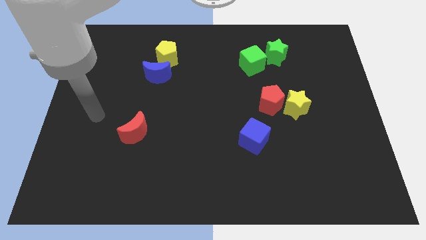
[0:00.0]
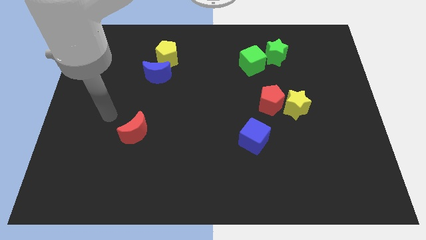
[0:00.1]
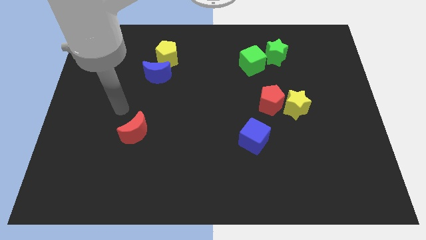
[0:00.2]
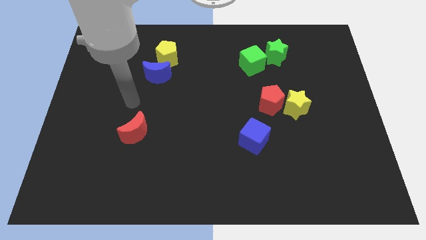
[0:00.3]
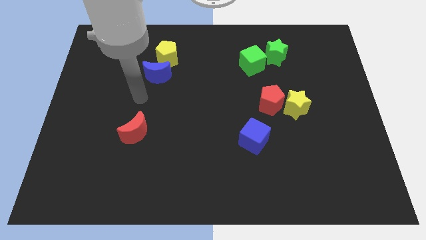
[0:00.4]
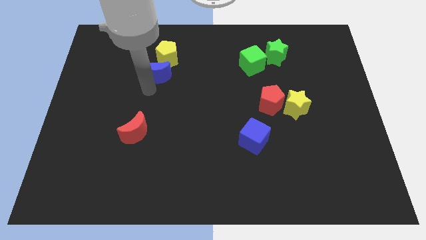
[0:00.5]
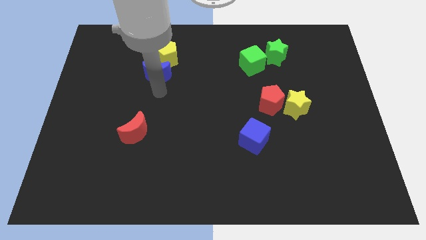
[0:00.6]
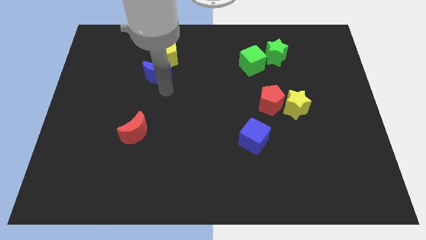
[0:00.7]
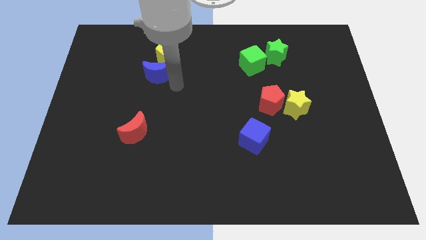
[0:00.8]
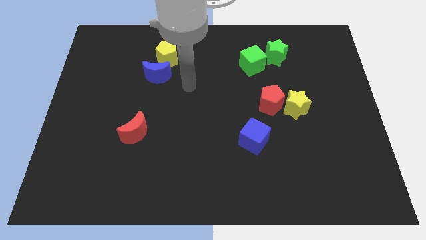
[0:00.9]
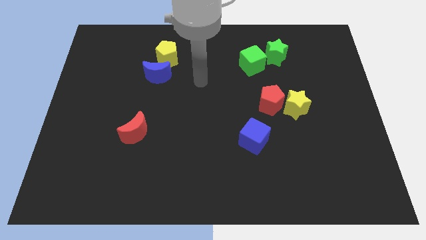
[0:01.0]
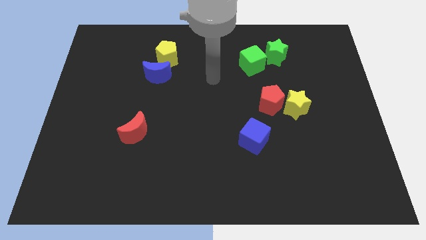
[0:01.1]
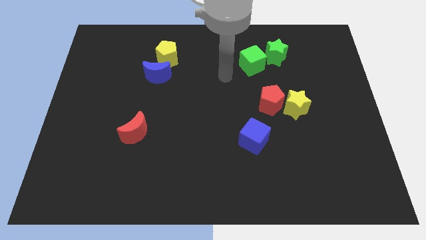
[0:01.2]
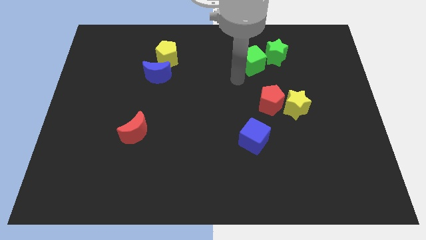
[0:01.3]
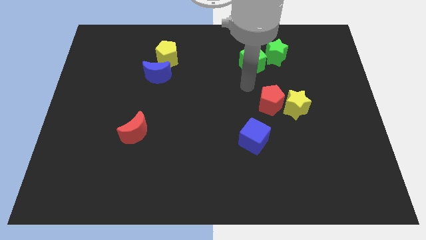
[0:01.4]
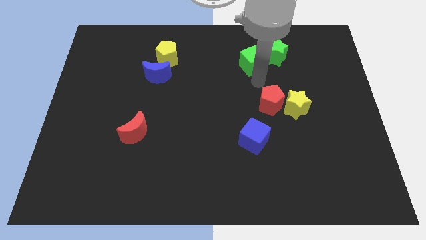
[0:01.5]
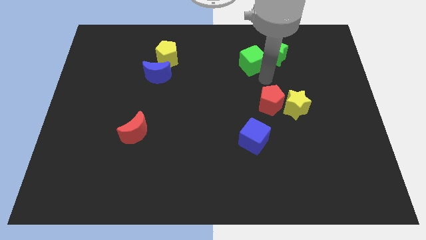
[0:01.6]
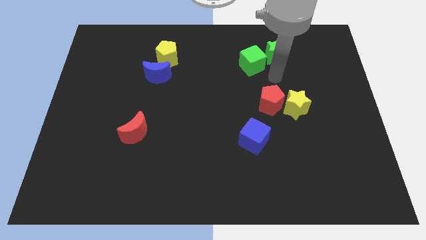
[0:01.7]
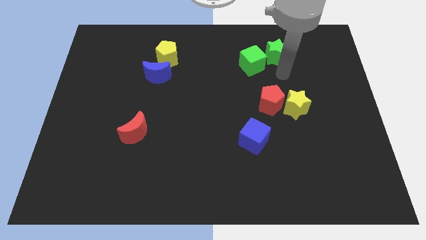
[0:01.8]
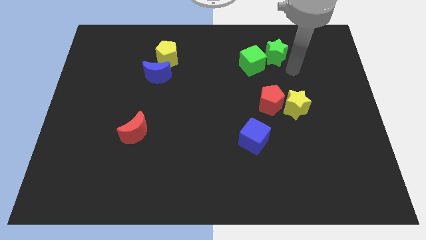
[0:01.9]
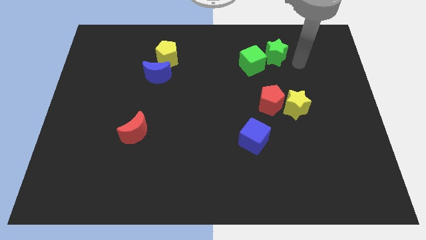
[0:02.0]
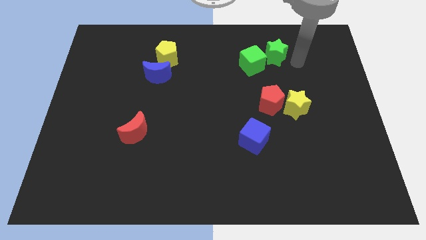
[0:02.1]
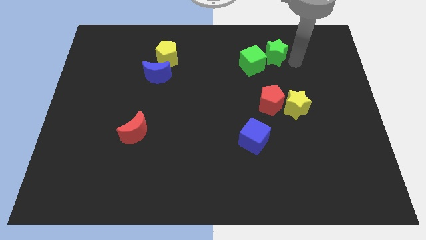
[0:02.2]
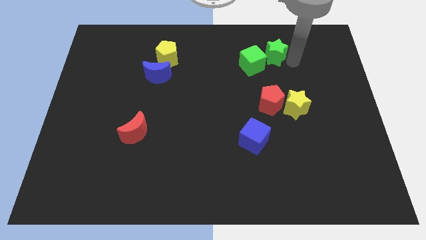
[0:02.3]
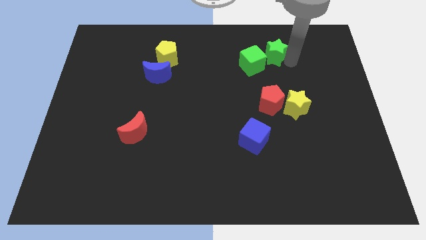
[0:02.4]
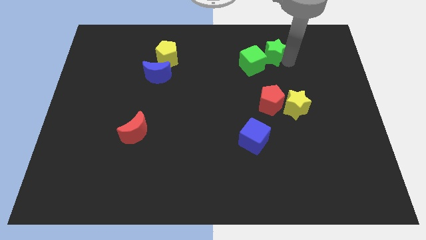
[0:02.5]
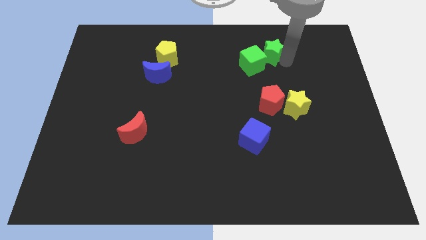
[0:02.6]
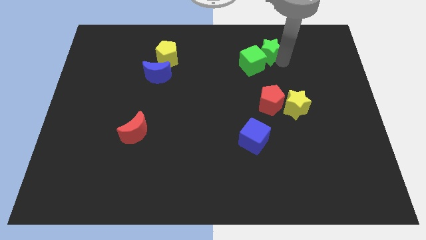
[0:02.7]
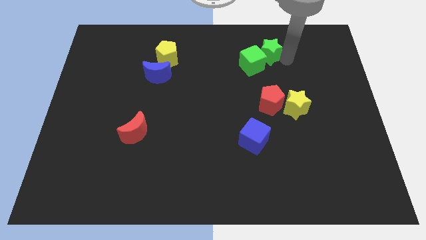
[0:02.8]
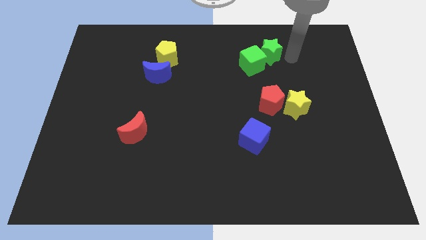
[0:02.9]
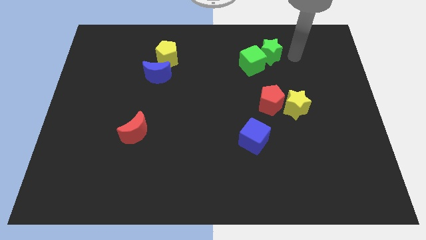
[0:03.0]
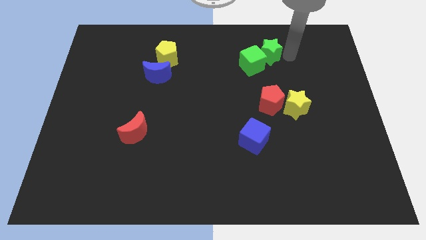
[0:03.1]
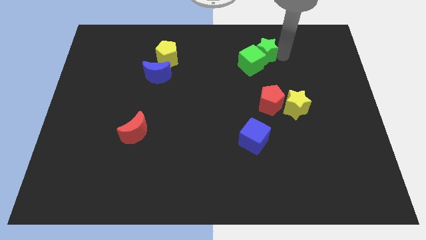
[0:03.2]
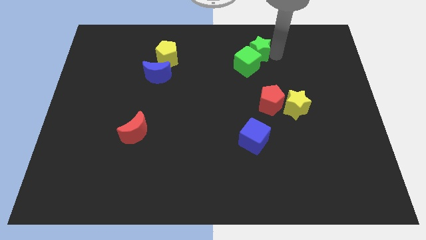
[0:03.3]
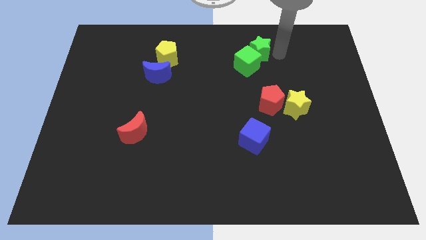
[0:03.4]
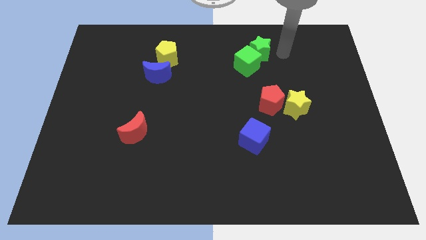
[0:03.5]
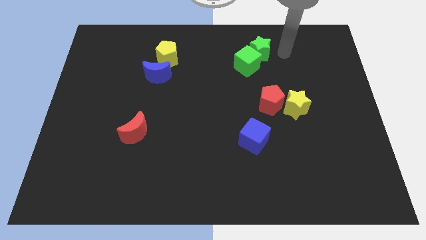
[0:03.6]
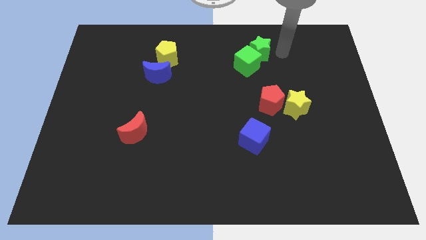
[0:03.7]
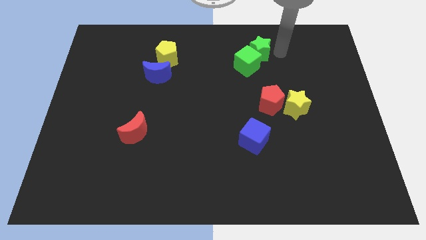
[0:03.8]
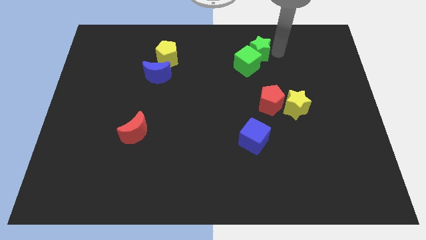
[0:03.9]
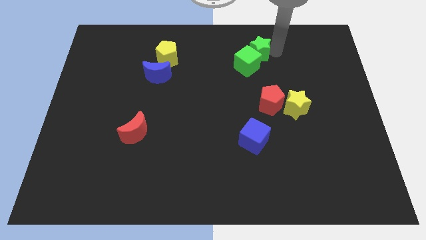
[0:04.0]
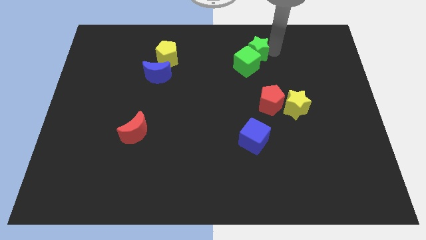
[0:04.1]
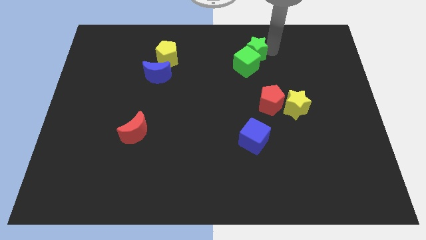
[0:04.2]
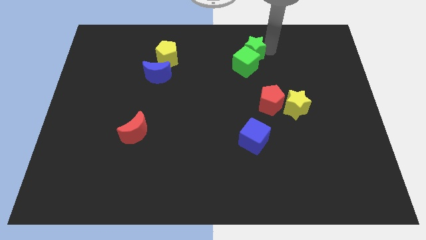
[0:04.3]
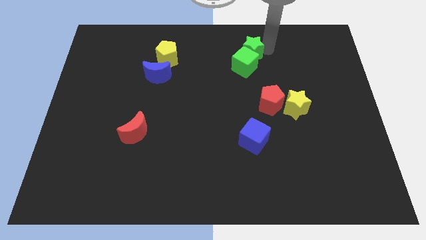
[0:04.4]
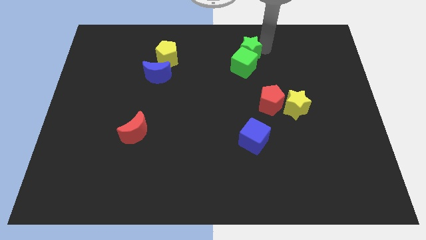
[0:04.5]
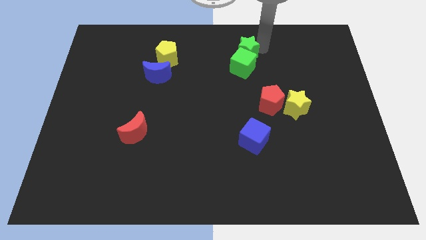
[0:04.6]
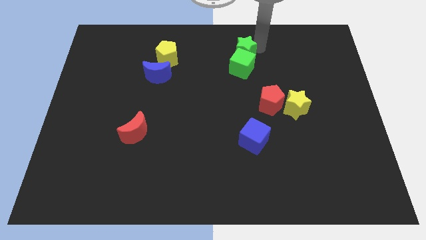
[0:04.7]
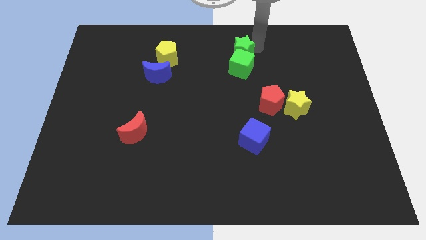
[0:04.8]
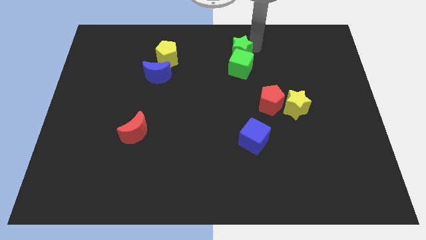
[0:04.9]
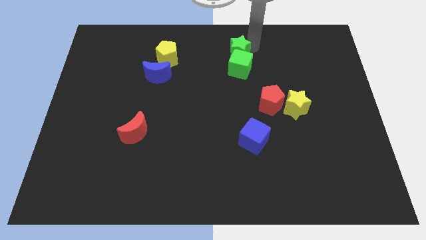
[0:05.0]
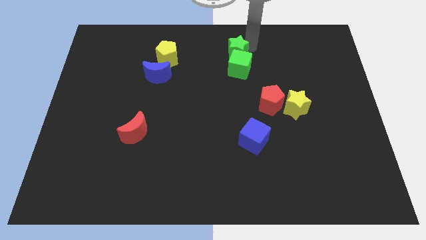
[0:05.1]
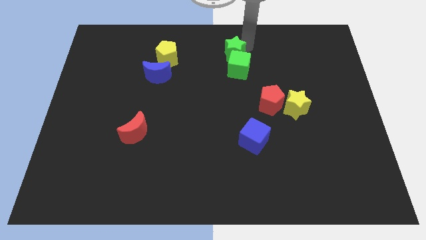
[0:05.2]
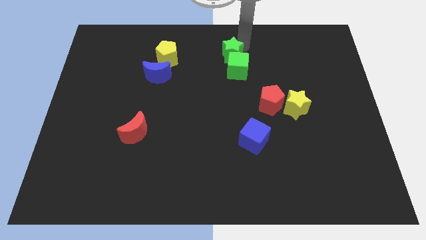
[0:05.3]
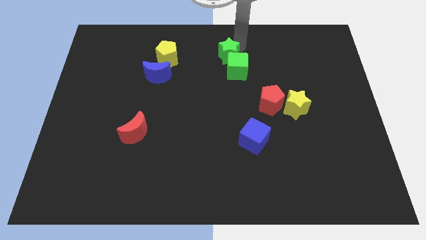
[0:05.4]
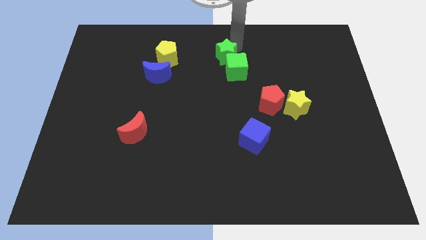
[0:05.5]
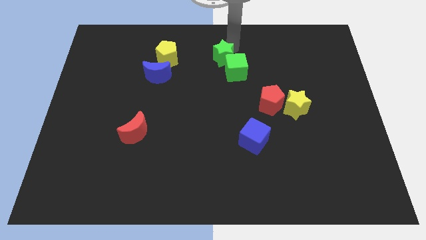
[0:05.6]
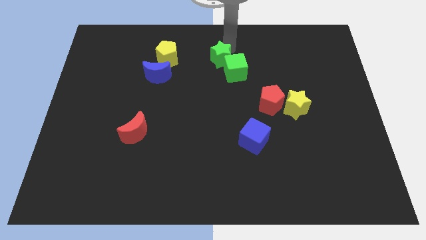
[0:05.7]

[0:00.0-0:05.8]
push the green star just left of the green cube

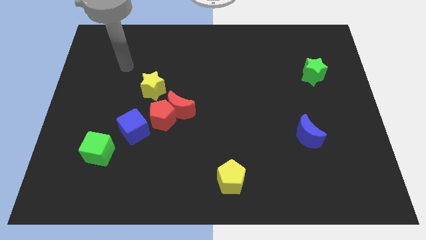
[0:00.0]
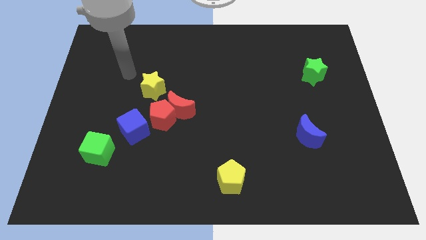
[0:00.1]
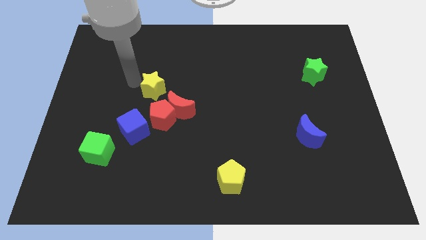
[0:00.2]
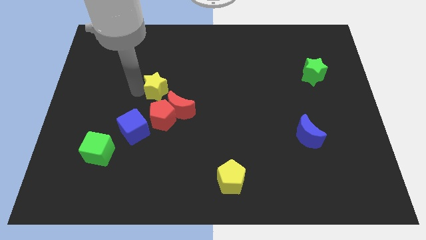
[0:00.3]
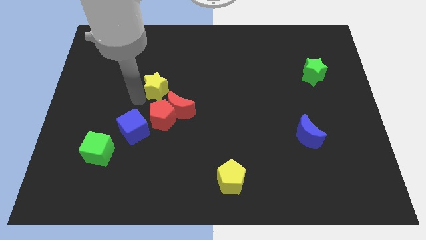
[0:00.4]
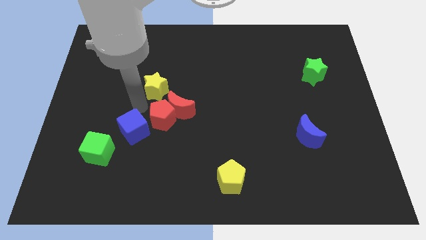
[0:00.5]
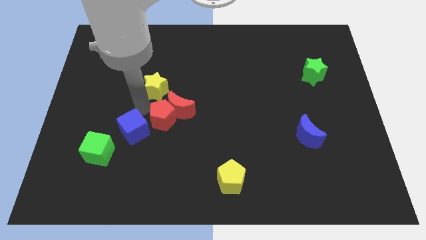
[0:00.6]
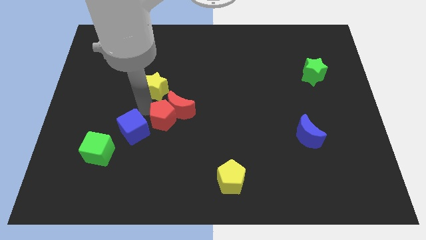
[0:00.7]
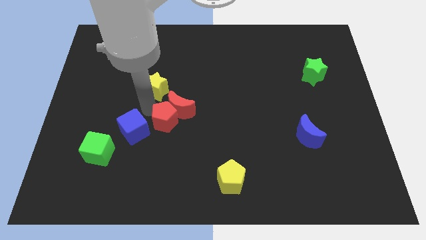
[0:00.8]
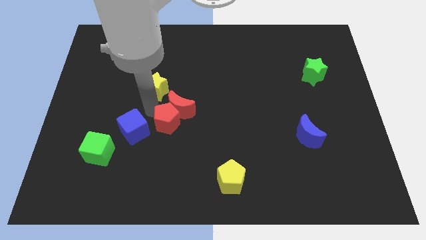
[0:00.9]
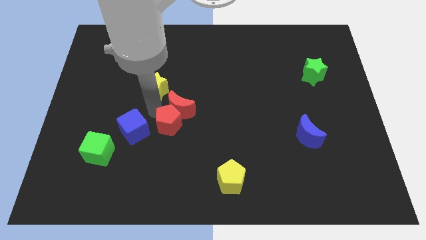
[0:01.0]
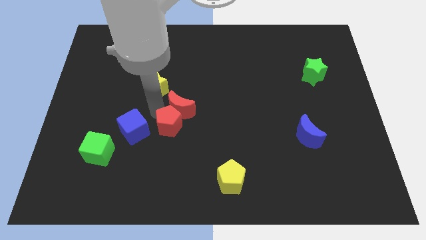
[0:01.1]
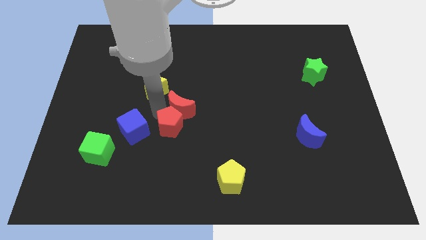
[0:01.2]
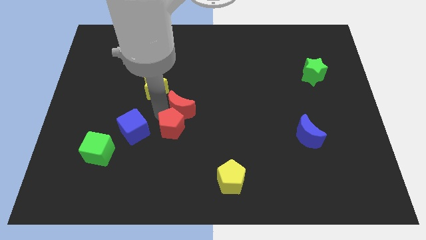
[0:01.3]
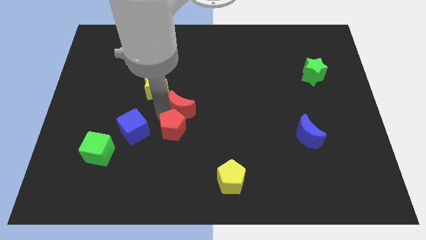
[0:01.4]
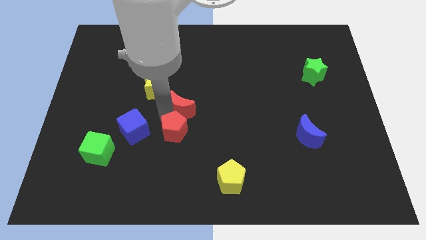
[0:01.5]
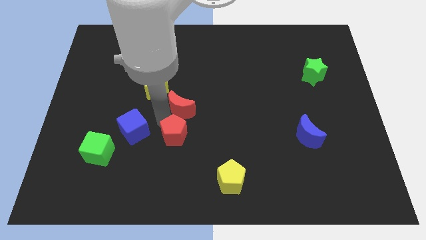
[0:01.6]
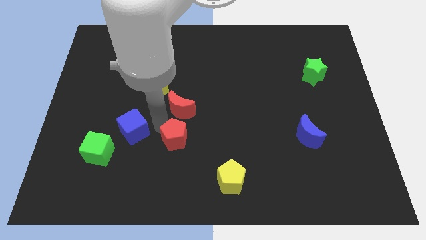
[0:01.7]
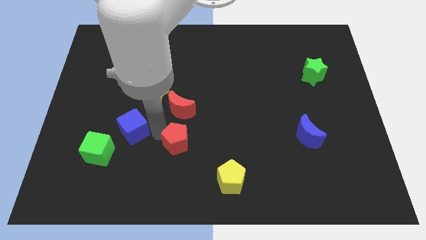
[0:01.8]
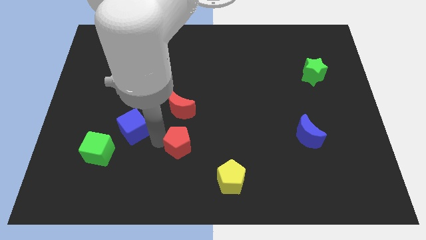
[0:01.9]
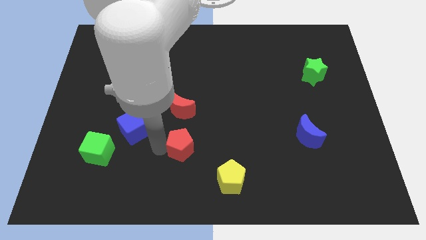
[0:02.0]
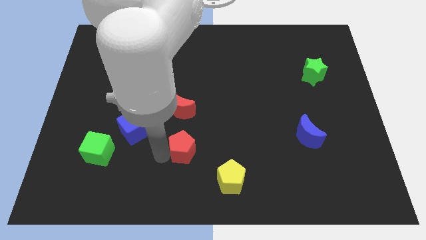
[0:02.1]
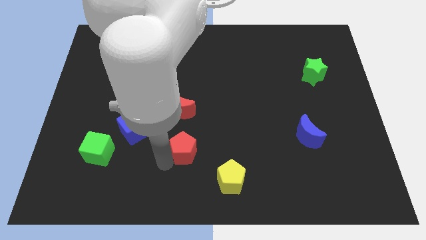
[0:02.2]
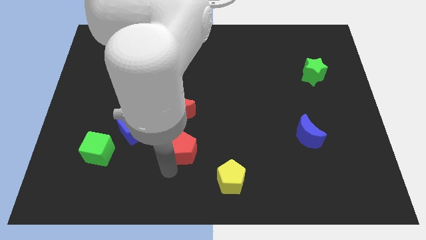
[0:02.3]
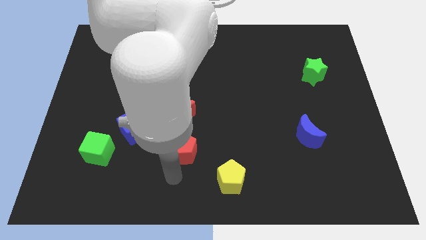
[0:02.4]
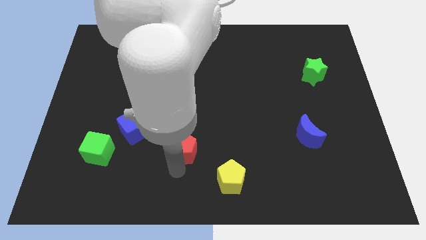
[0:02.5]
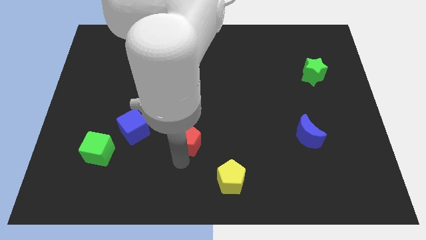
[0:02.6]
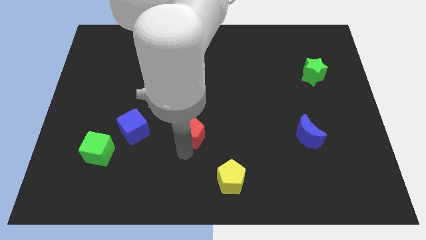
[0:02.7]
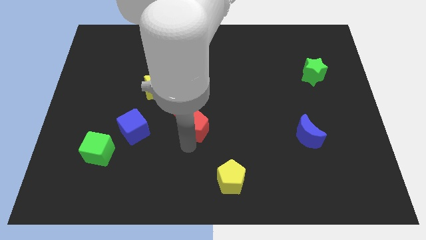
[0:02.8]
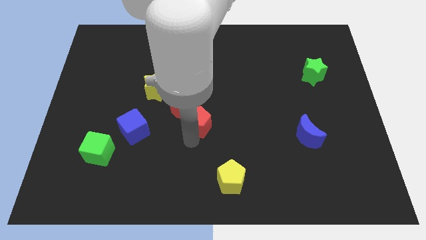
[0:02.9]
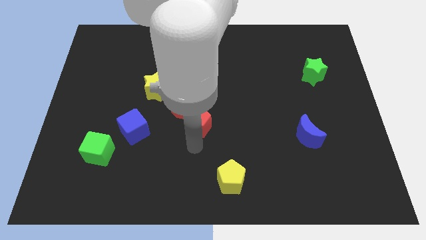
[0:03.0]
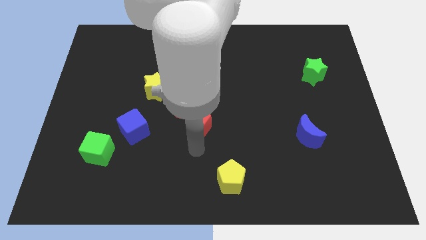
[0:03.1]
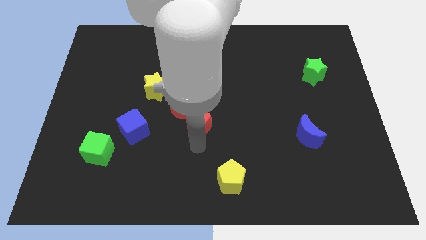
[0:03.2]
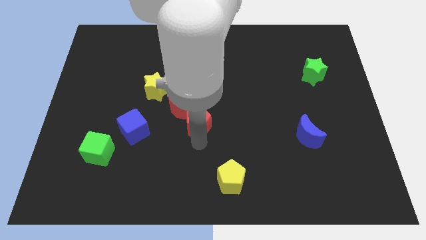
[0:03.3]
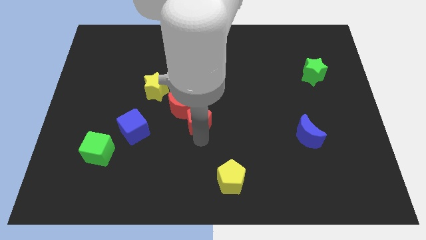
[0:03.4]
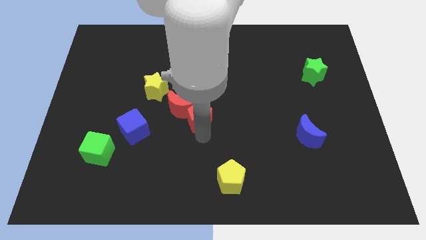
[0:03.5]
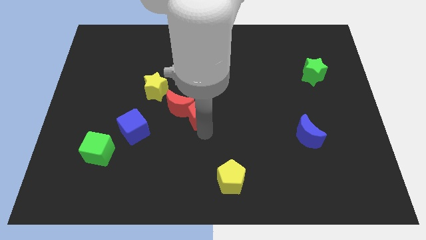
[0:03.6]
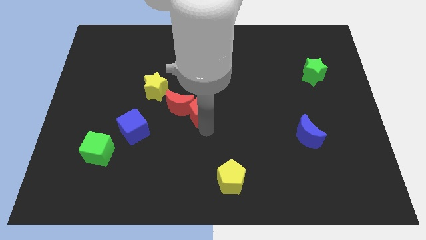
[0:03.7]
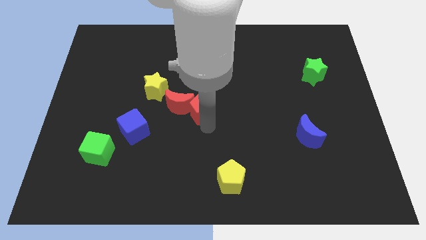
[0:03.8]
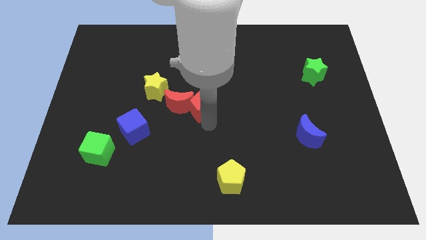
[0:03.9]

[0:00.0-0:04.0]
slide the red pentagon to the top right side of the red moon
